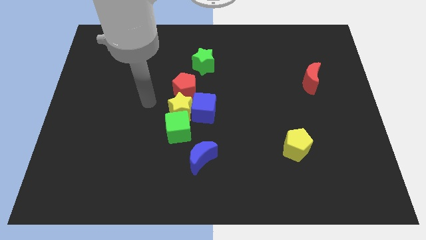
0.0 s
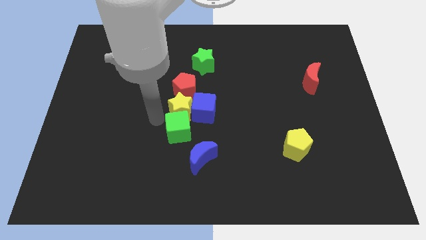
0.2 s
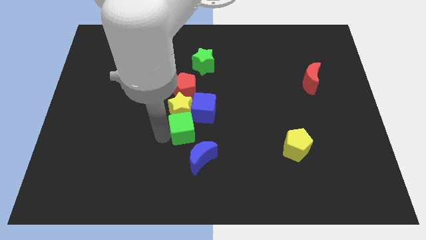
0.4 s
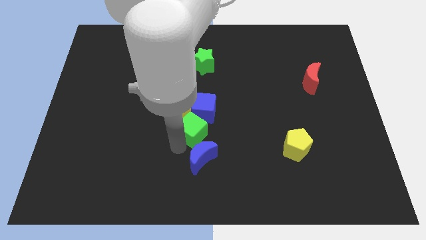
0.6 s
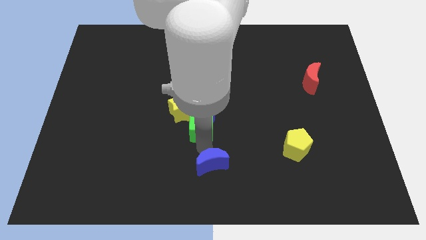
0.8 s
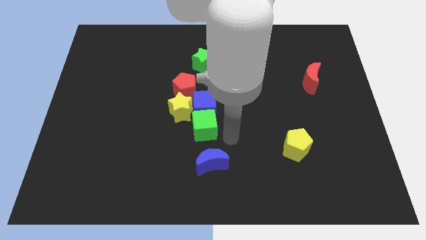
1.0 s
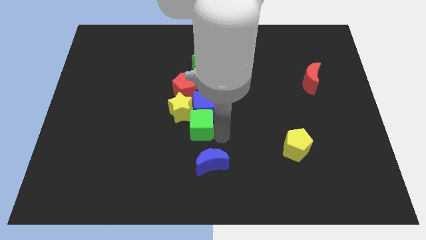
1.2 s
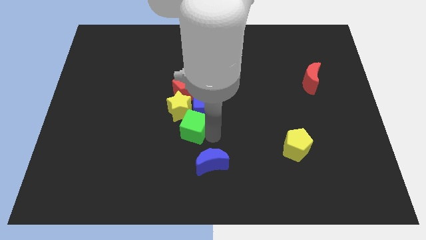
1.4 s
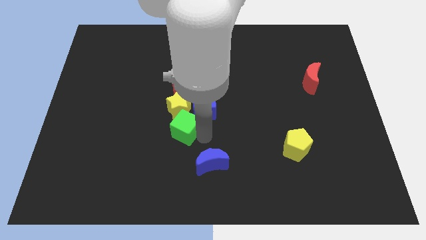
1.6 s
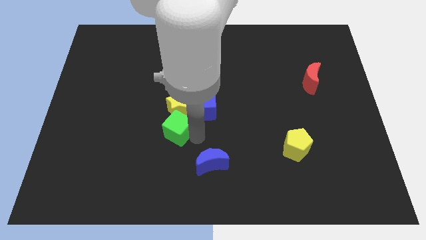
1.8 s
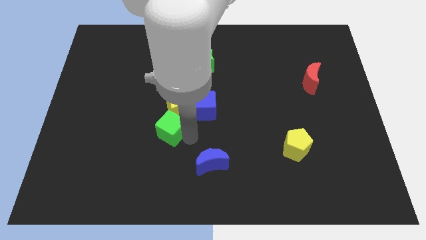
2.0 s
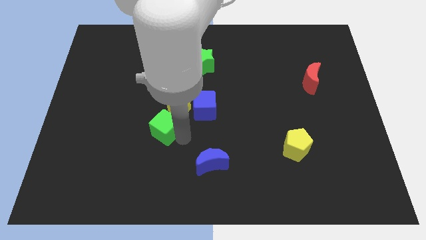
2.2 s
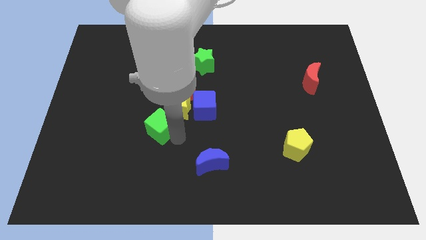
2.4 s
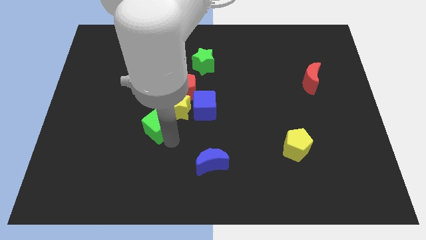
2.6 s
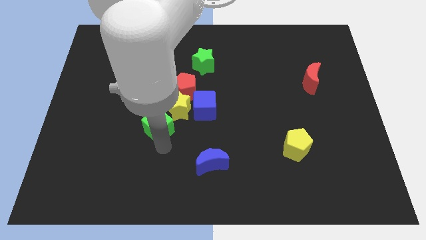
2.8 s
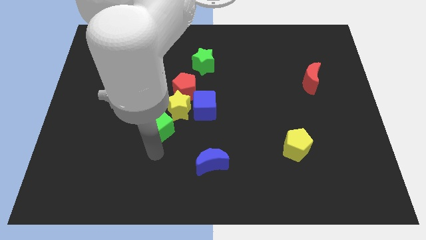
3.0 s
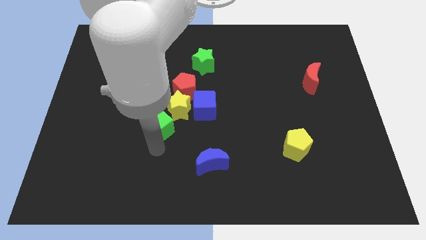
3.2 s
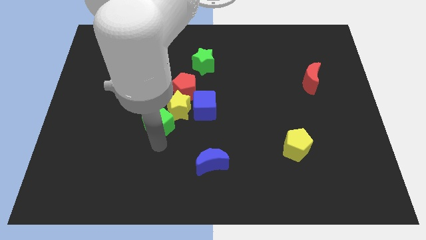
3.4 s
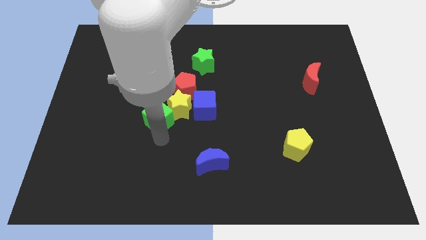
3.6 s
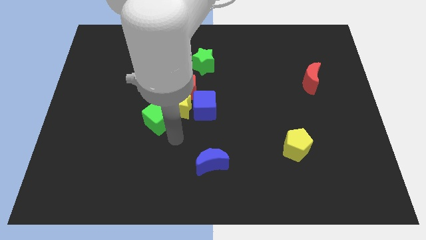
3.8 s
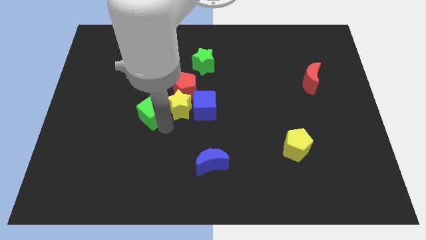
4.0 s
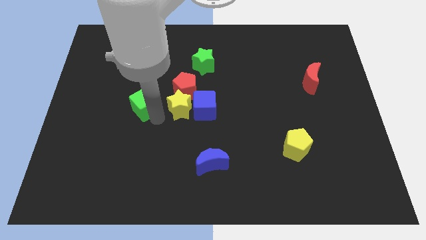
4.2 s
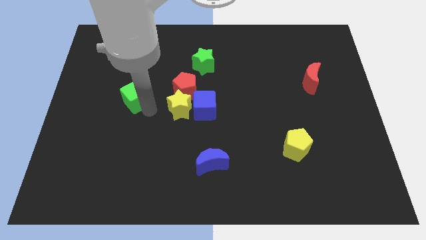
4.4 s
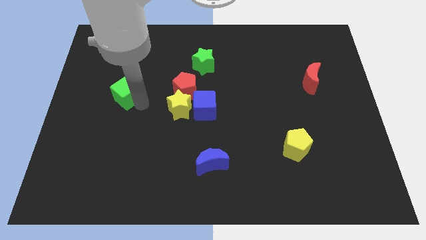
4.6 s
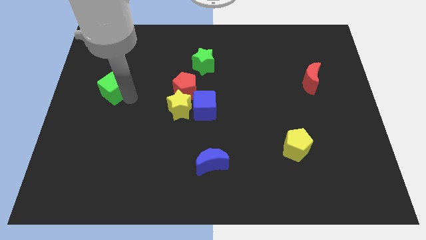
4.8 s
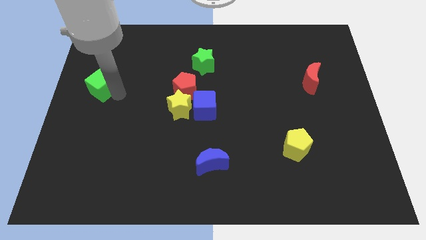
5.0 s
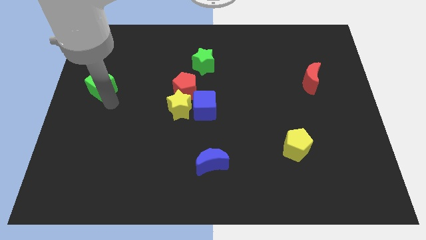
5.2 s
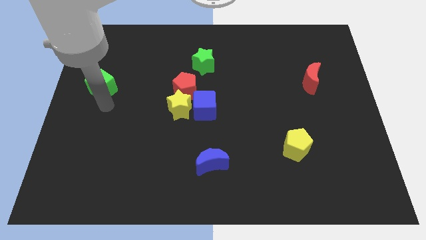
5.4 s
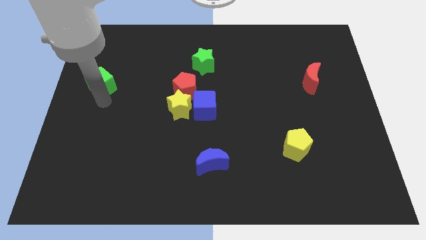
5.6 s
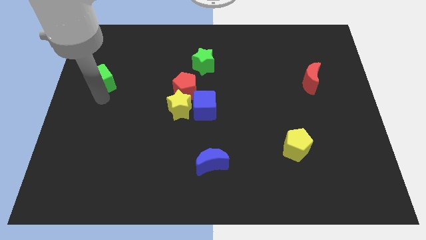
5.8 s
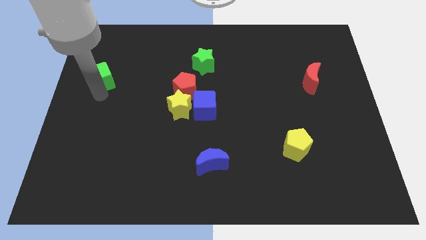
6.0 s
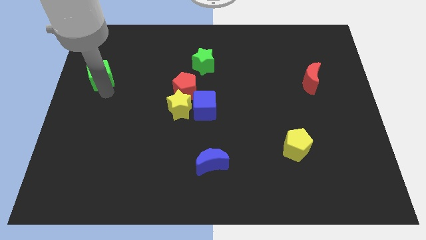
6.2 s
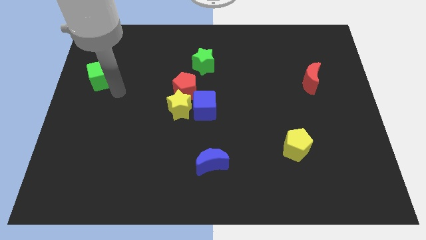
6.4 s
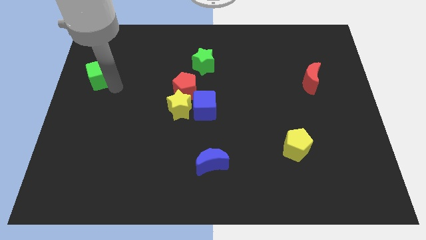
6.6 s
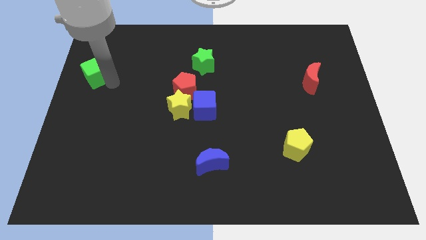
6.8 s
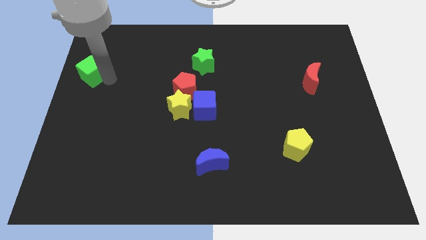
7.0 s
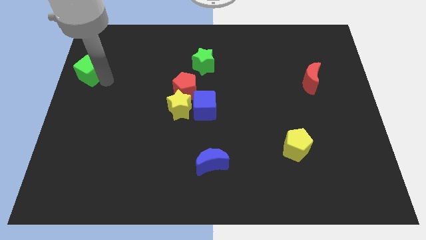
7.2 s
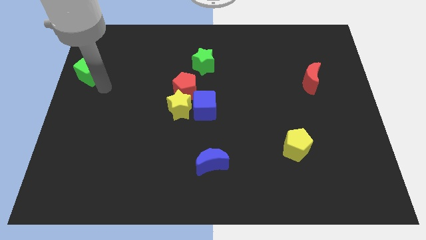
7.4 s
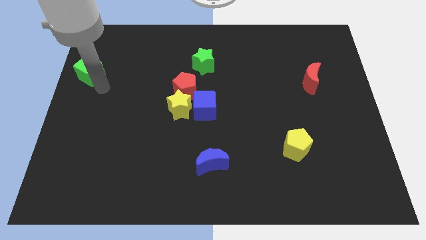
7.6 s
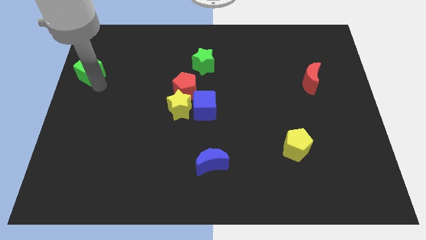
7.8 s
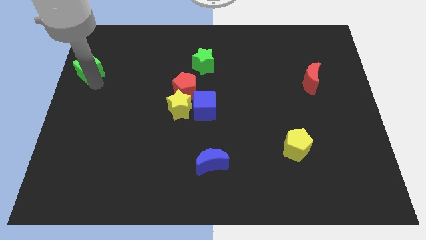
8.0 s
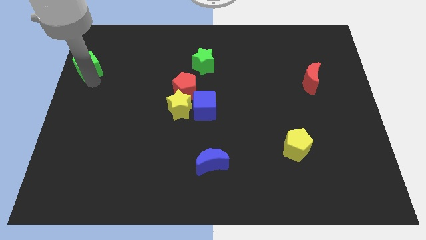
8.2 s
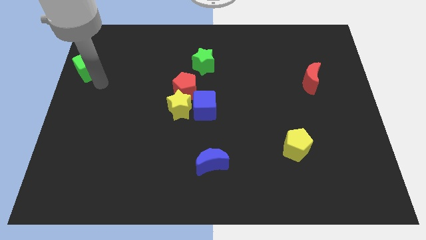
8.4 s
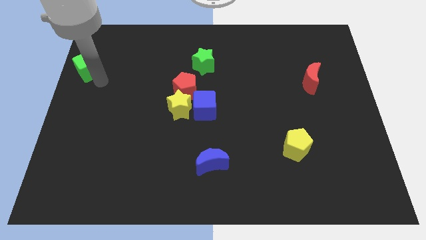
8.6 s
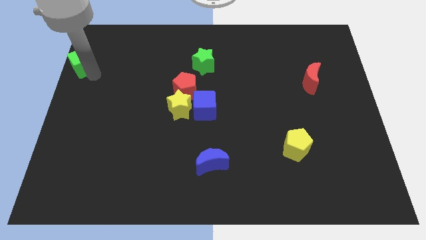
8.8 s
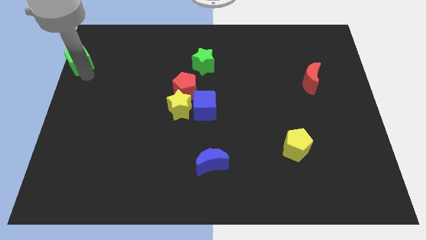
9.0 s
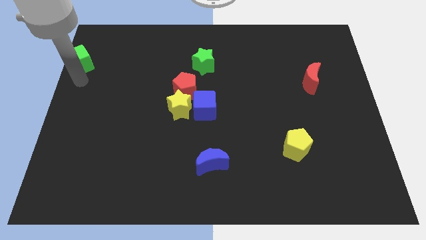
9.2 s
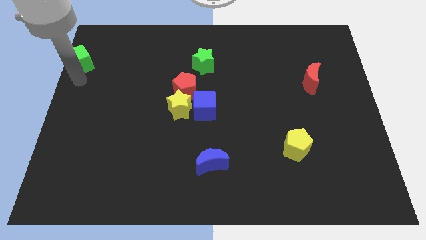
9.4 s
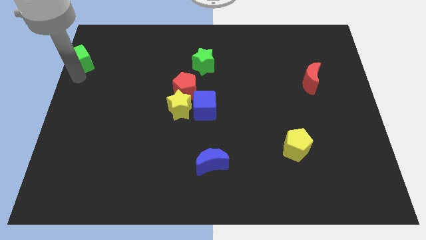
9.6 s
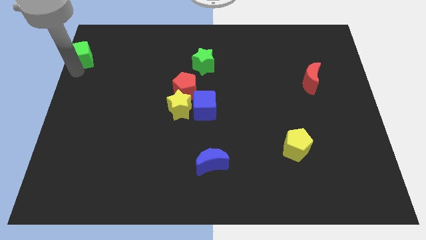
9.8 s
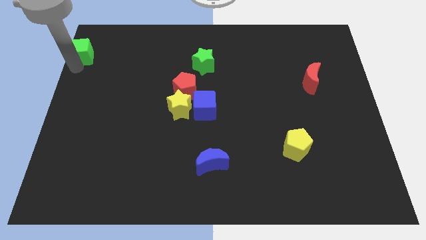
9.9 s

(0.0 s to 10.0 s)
slide the green cube to the top left corner

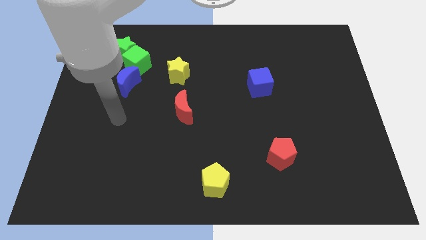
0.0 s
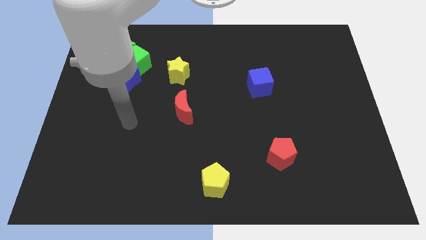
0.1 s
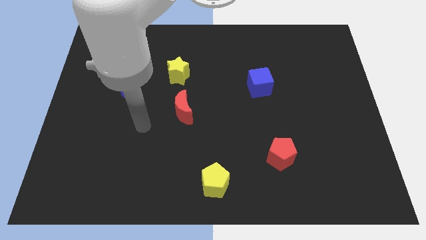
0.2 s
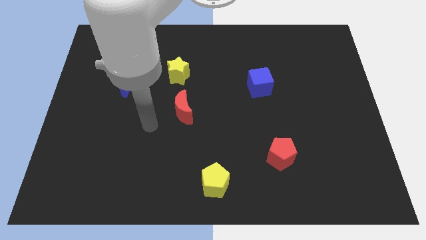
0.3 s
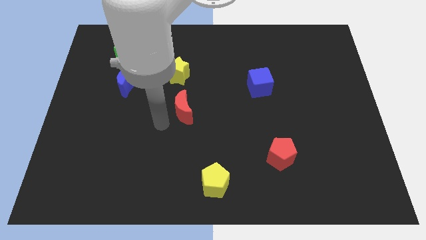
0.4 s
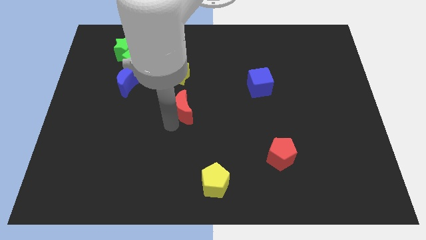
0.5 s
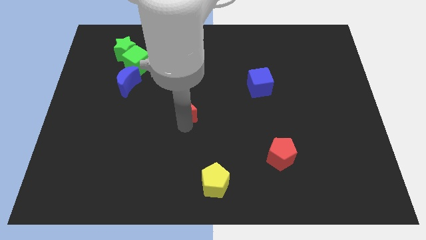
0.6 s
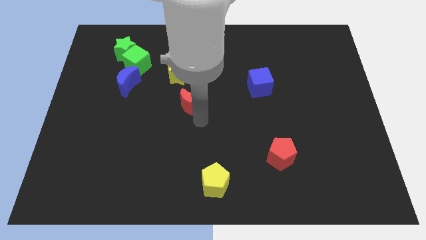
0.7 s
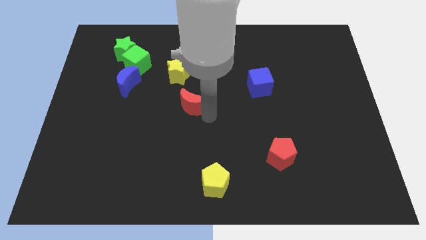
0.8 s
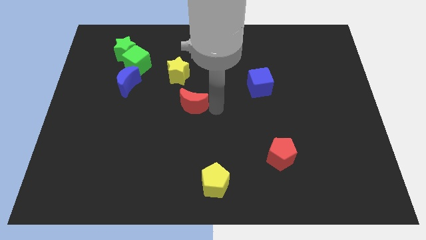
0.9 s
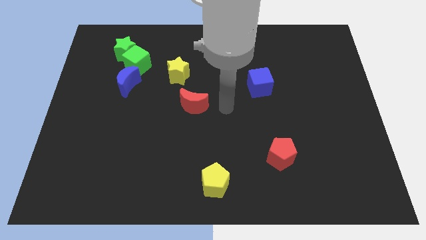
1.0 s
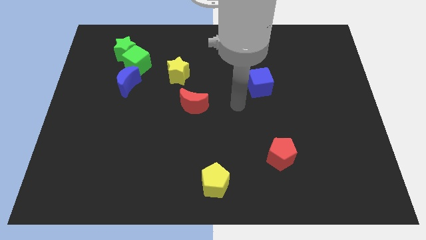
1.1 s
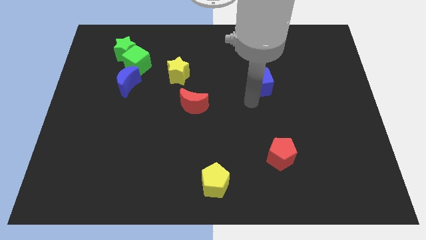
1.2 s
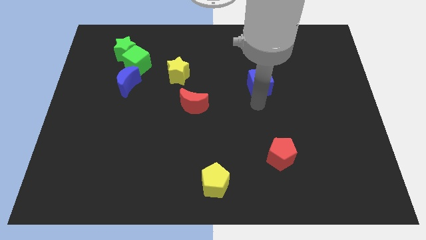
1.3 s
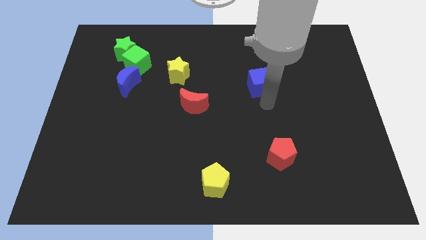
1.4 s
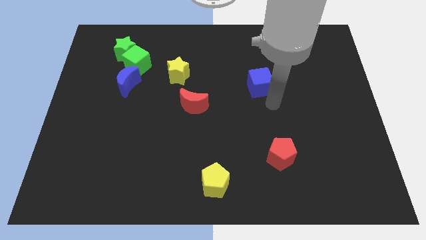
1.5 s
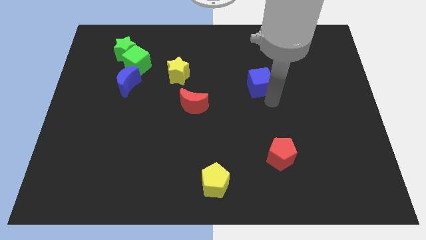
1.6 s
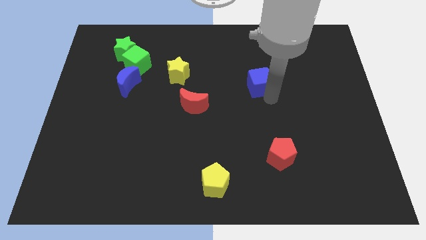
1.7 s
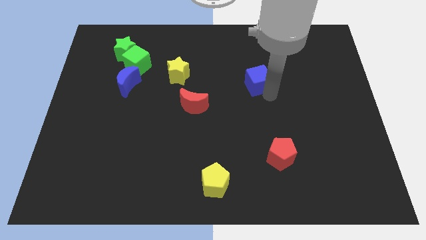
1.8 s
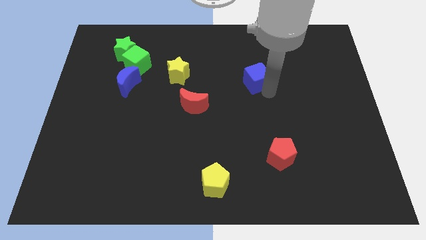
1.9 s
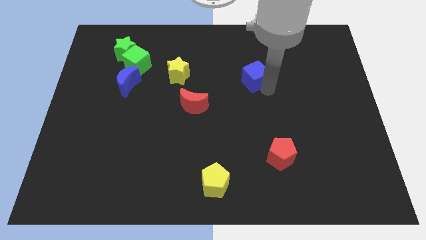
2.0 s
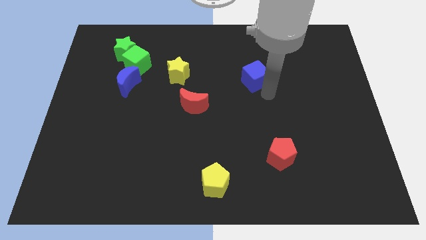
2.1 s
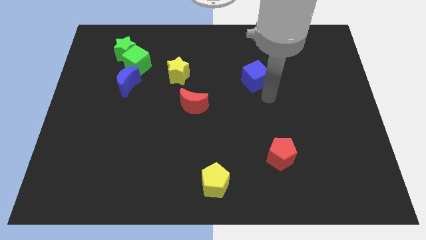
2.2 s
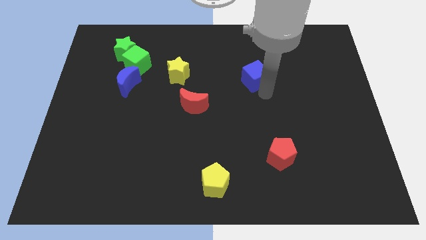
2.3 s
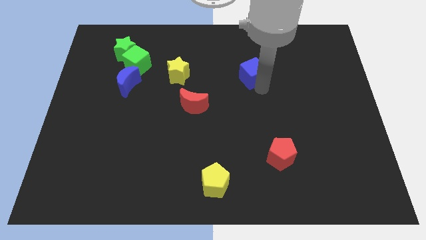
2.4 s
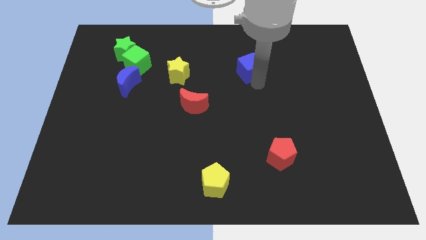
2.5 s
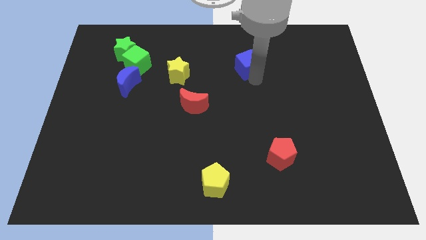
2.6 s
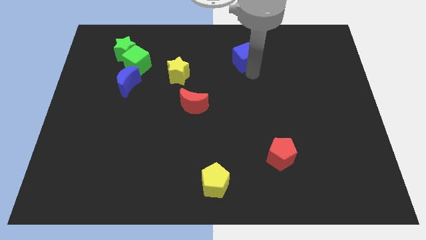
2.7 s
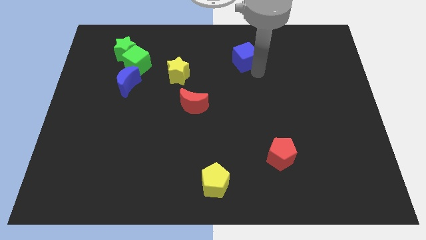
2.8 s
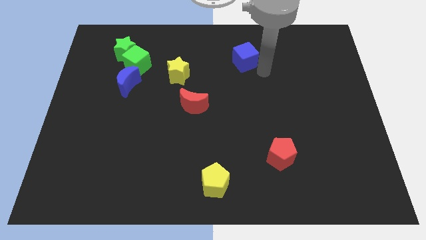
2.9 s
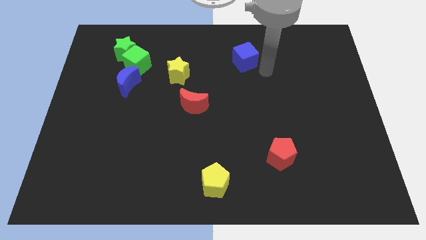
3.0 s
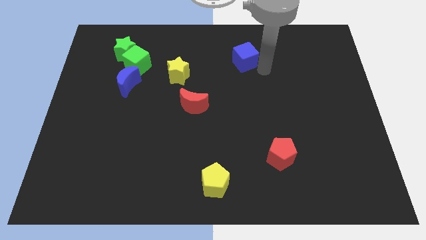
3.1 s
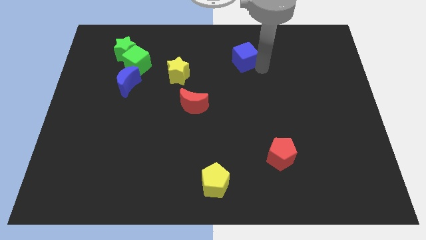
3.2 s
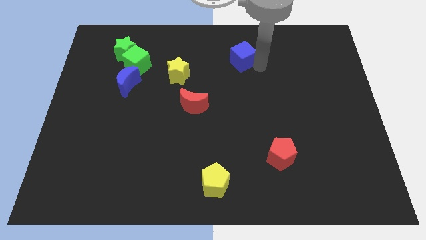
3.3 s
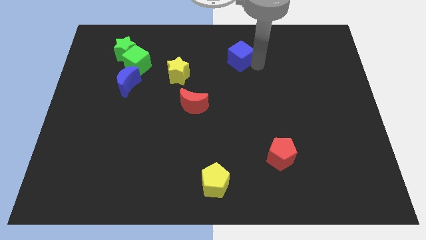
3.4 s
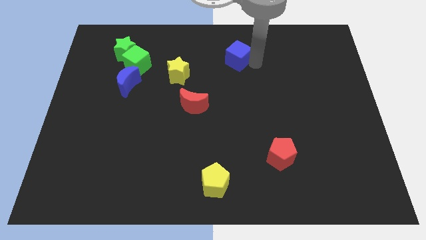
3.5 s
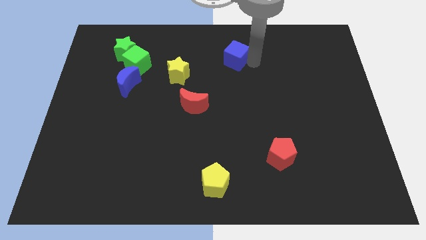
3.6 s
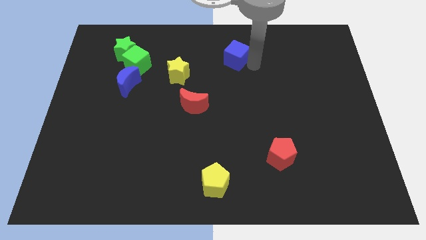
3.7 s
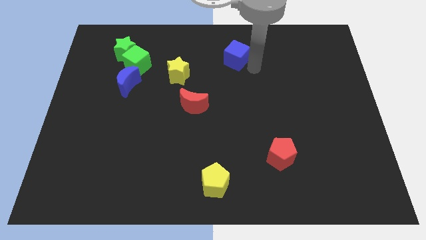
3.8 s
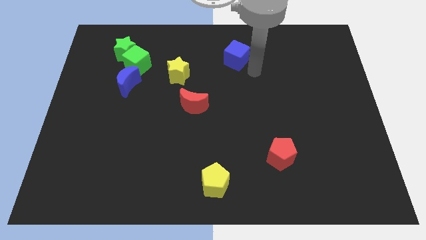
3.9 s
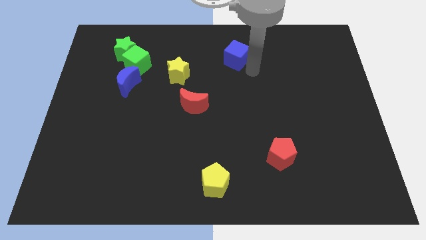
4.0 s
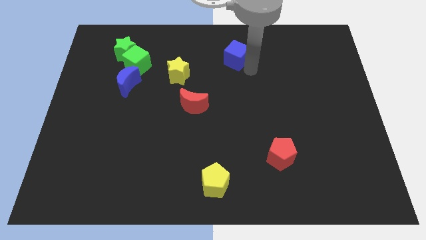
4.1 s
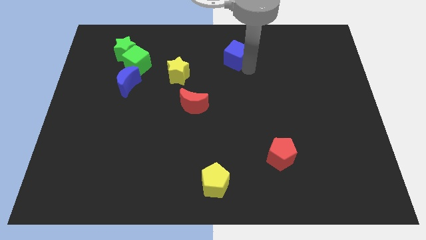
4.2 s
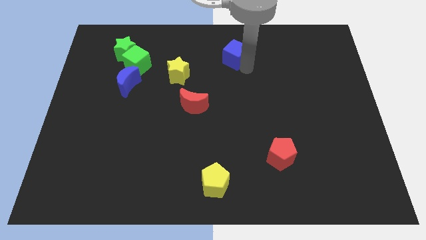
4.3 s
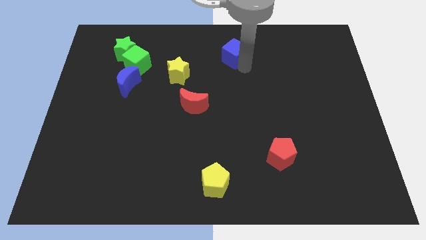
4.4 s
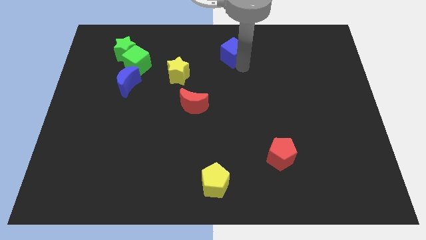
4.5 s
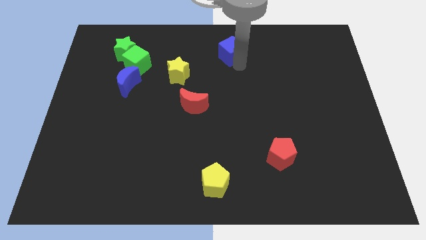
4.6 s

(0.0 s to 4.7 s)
put the blue cube to the towards your base
